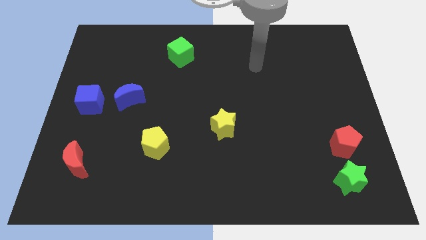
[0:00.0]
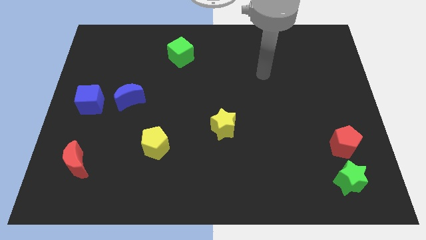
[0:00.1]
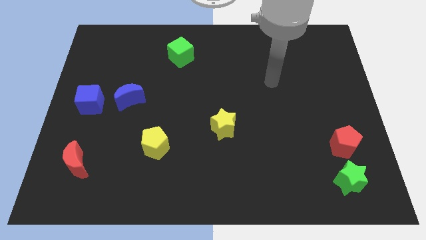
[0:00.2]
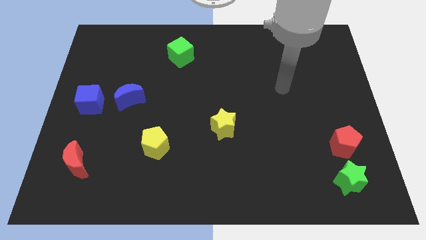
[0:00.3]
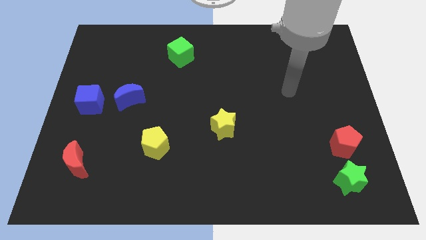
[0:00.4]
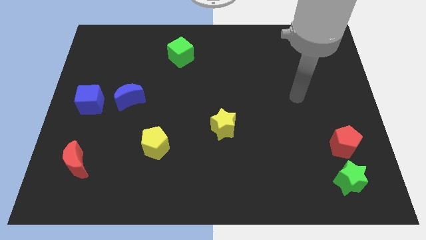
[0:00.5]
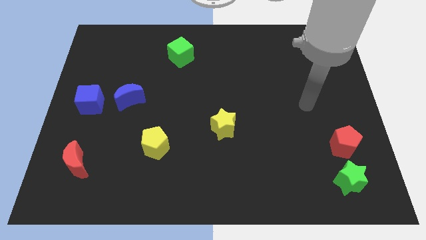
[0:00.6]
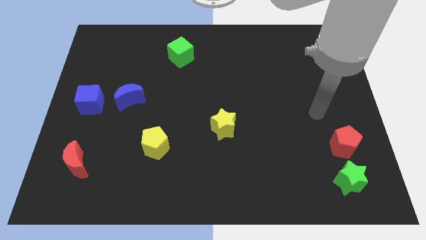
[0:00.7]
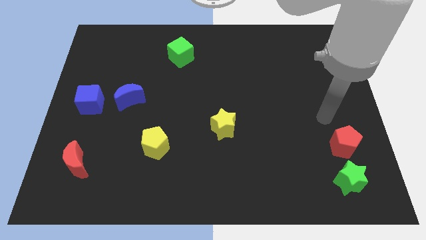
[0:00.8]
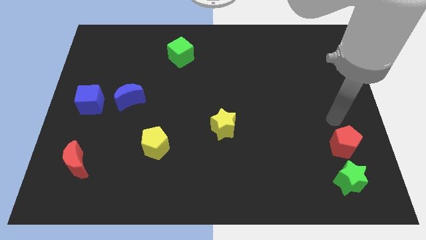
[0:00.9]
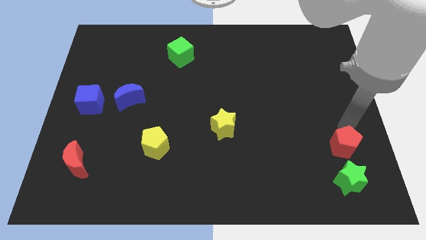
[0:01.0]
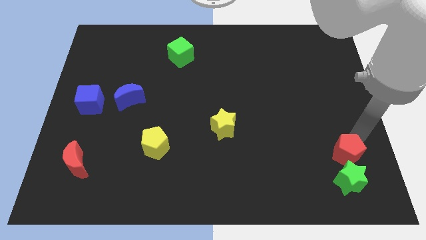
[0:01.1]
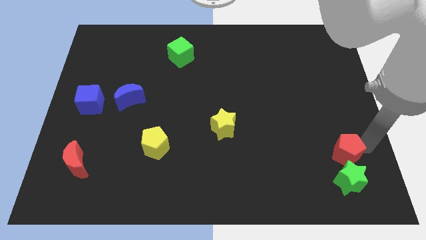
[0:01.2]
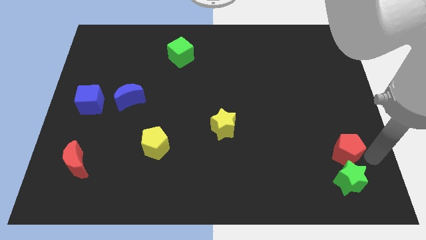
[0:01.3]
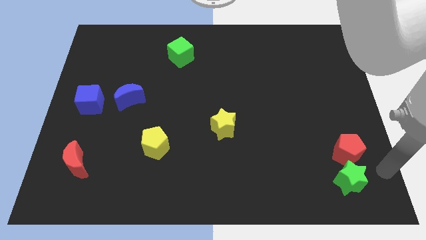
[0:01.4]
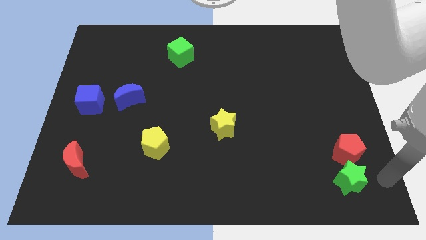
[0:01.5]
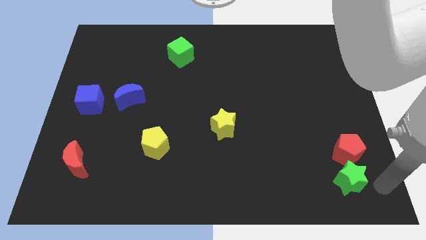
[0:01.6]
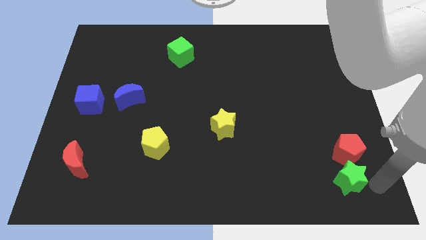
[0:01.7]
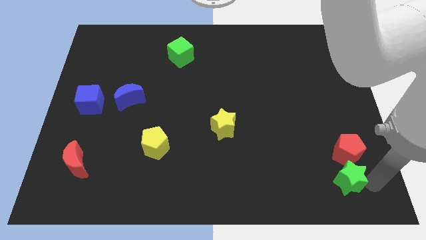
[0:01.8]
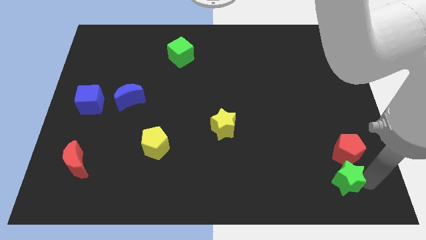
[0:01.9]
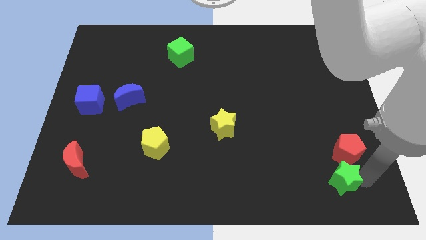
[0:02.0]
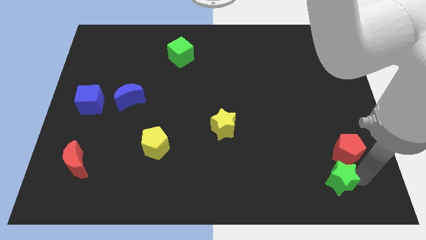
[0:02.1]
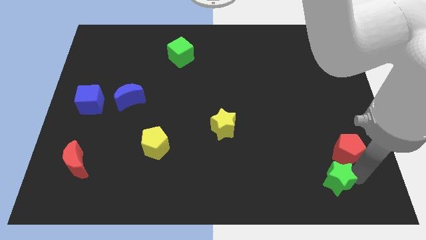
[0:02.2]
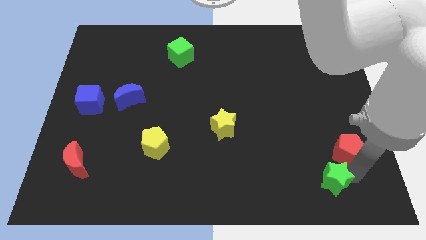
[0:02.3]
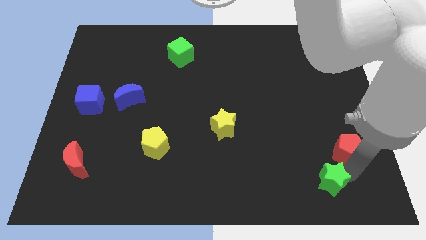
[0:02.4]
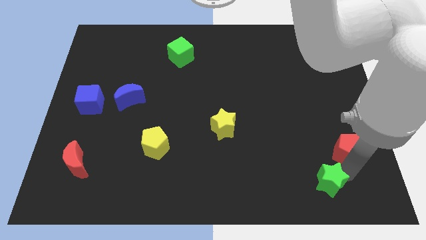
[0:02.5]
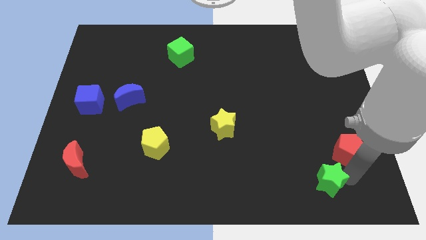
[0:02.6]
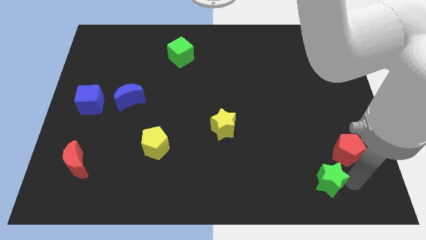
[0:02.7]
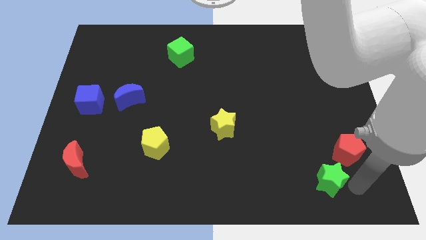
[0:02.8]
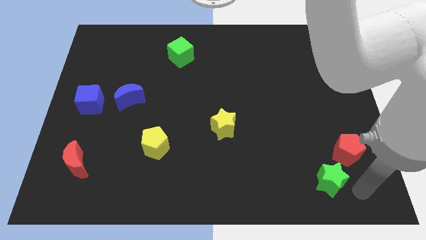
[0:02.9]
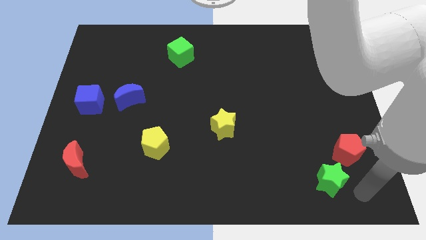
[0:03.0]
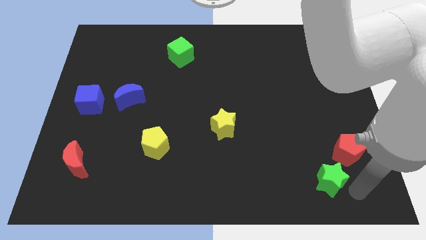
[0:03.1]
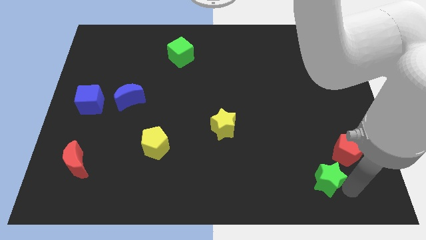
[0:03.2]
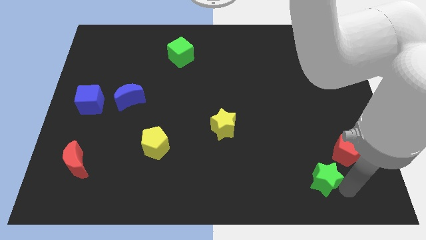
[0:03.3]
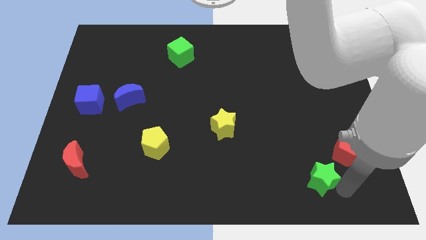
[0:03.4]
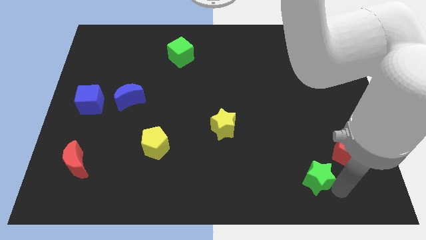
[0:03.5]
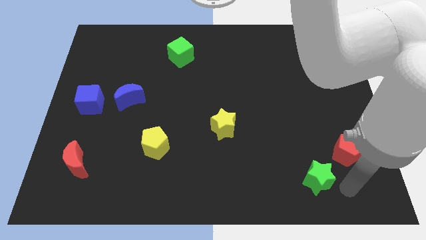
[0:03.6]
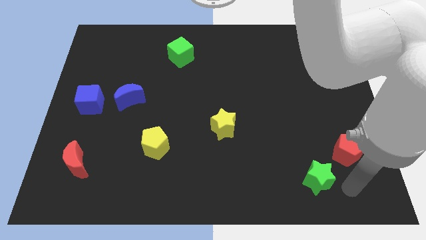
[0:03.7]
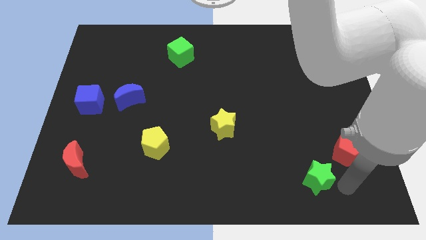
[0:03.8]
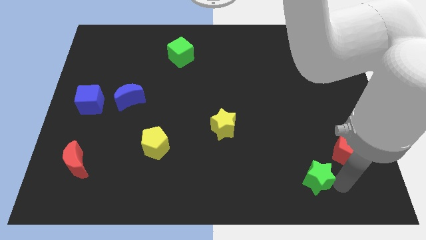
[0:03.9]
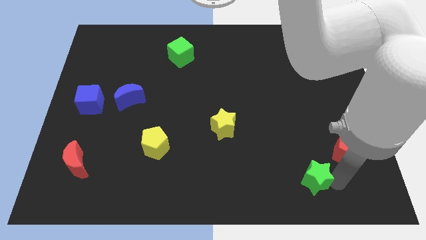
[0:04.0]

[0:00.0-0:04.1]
slide the green star slightly to the left

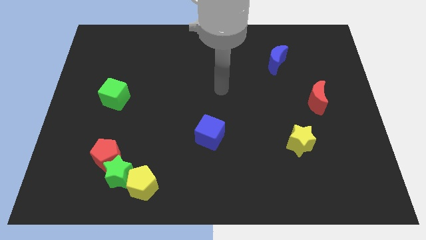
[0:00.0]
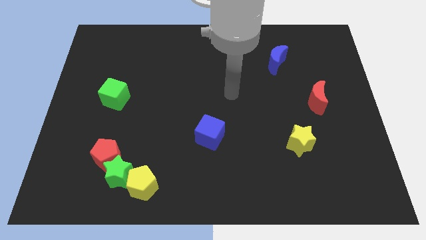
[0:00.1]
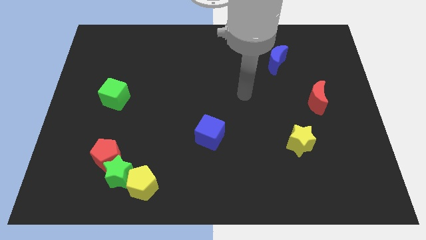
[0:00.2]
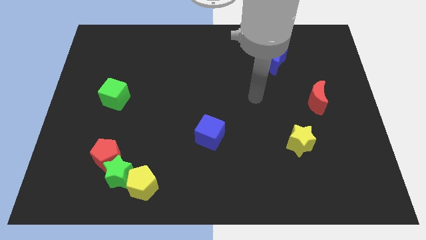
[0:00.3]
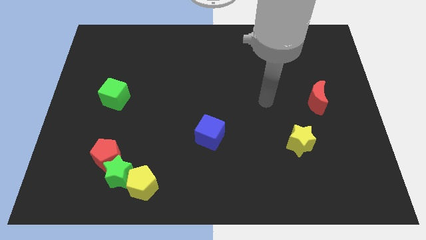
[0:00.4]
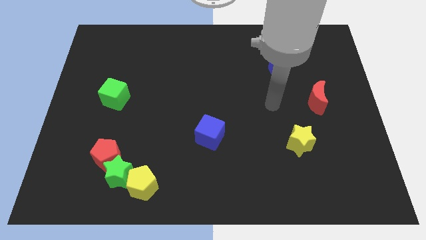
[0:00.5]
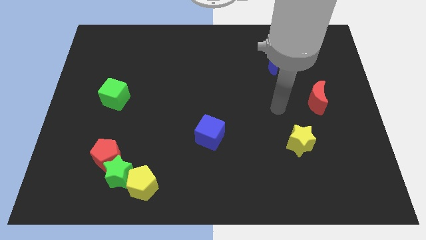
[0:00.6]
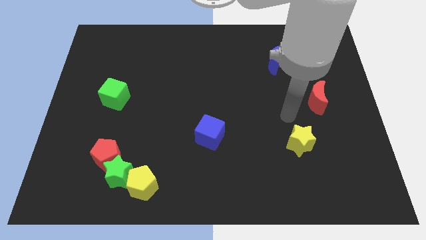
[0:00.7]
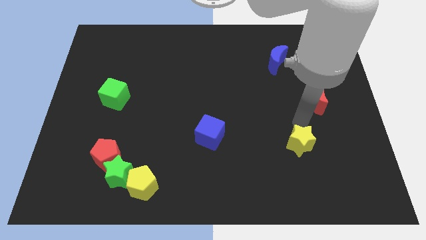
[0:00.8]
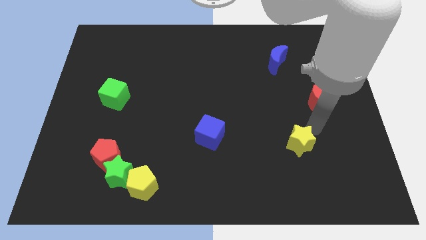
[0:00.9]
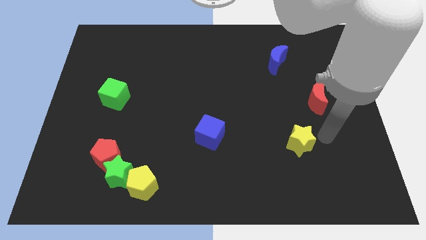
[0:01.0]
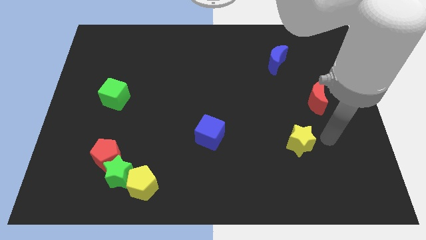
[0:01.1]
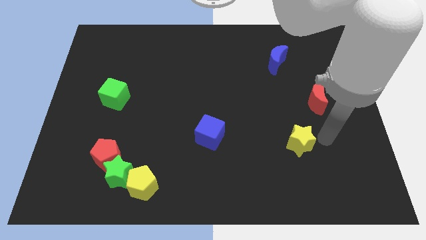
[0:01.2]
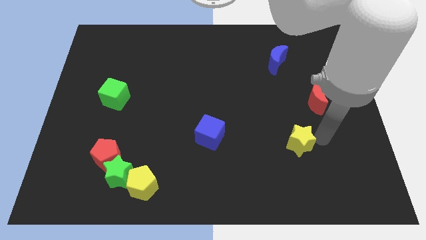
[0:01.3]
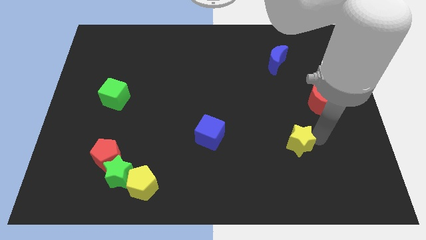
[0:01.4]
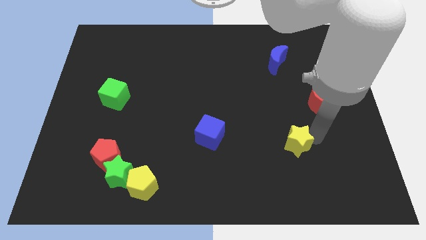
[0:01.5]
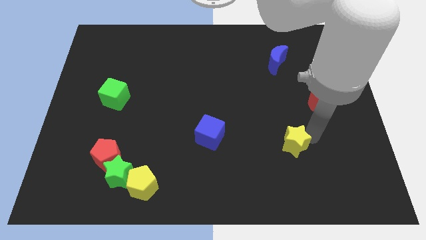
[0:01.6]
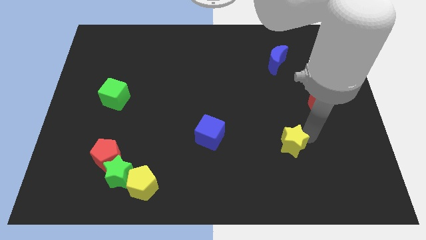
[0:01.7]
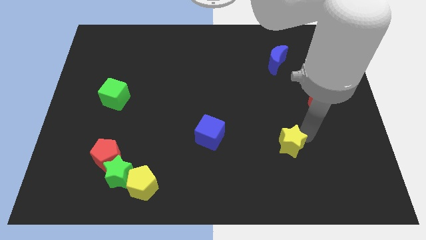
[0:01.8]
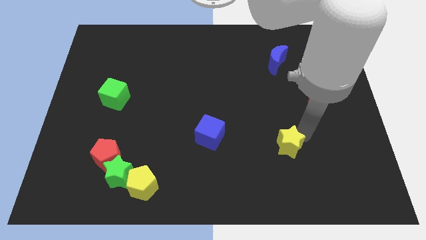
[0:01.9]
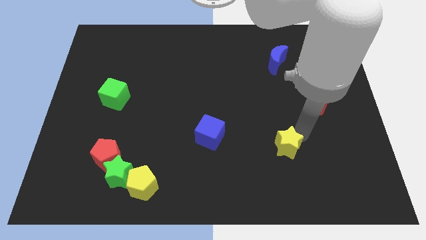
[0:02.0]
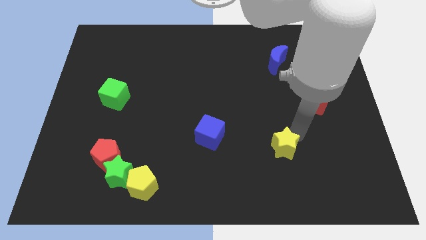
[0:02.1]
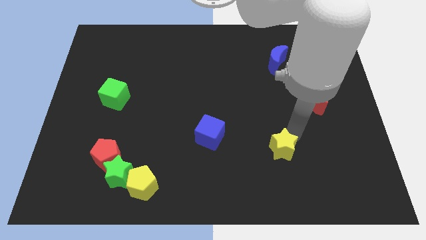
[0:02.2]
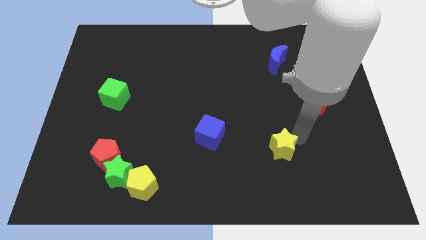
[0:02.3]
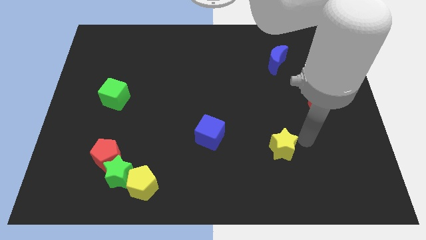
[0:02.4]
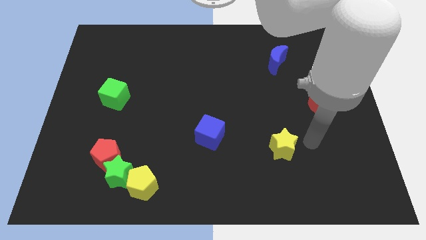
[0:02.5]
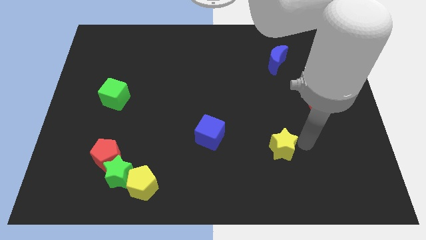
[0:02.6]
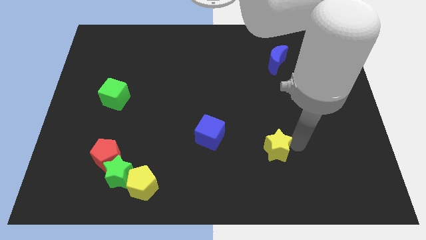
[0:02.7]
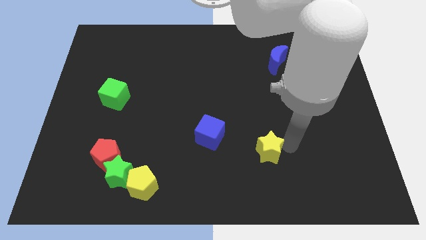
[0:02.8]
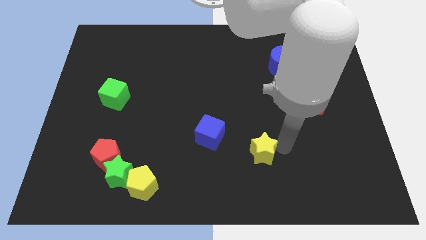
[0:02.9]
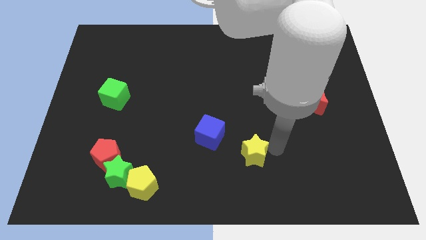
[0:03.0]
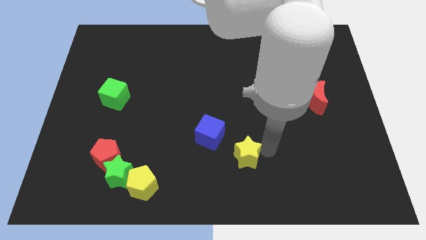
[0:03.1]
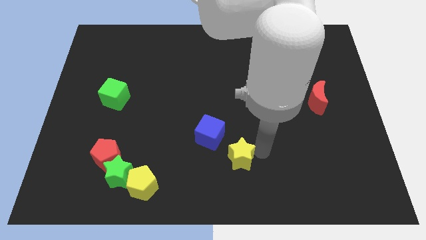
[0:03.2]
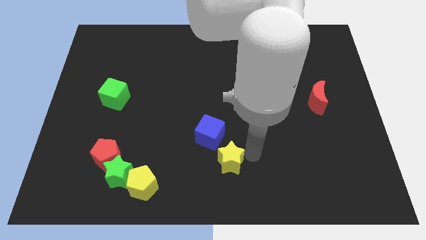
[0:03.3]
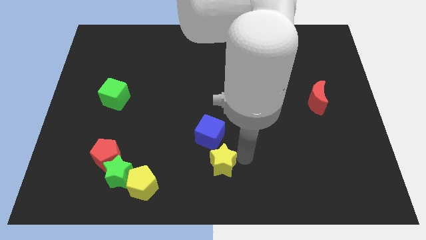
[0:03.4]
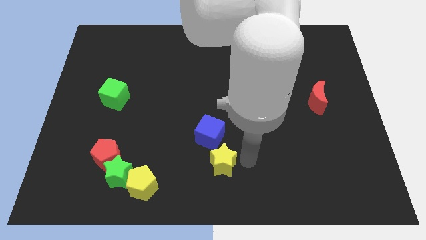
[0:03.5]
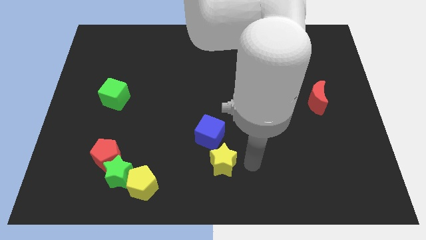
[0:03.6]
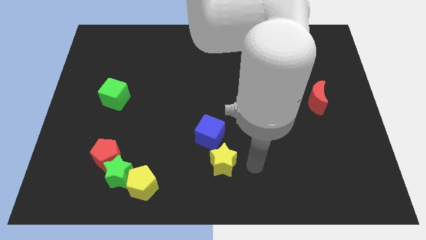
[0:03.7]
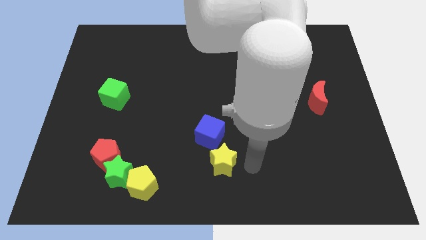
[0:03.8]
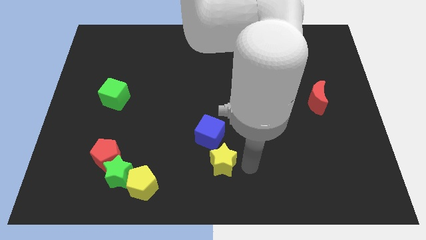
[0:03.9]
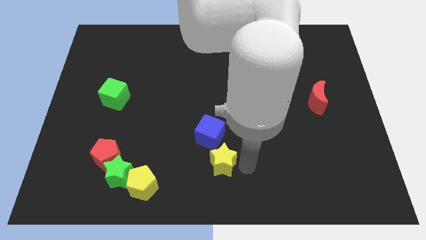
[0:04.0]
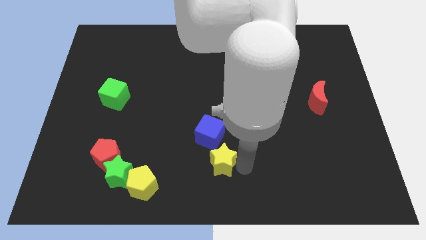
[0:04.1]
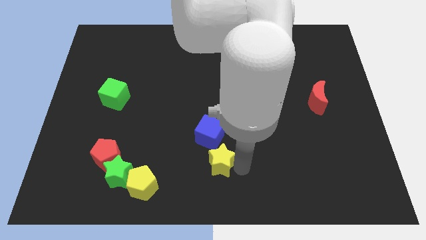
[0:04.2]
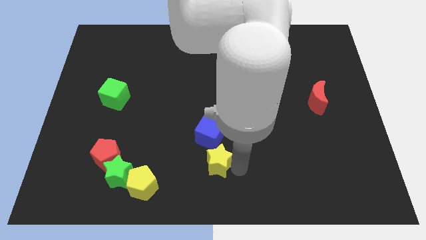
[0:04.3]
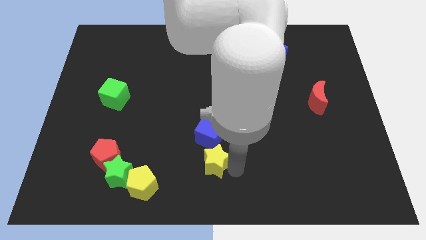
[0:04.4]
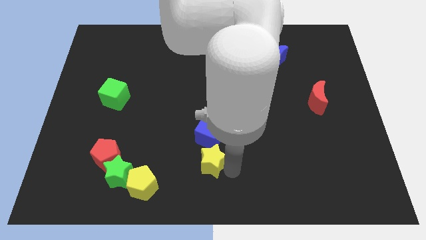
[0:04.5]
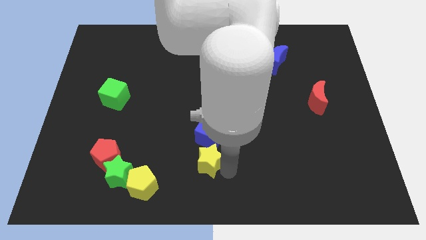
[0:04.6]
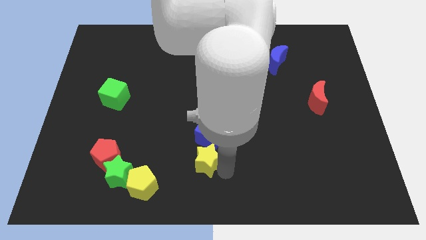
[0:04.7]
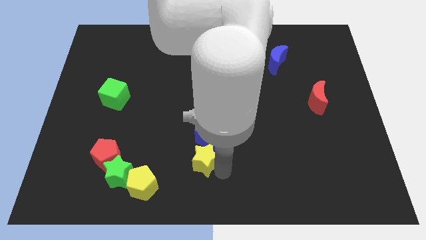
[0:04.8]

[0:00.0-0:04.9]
push the yellow star to the left
